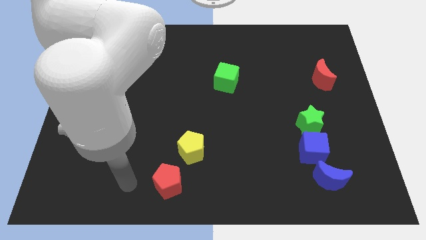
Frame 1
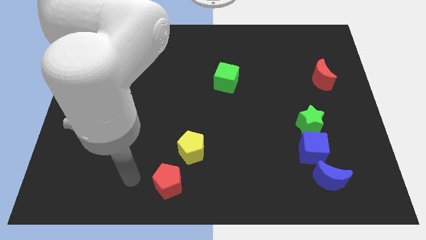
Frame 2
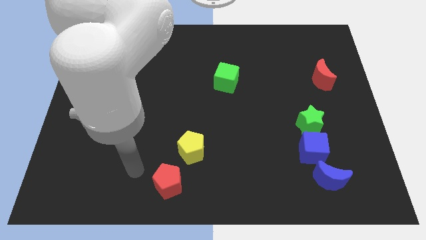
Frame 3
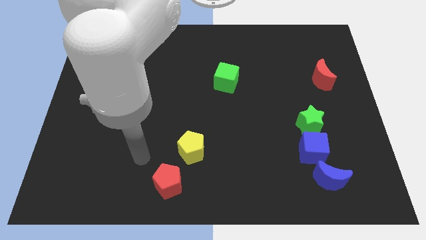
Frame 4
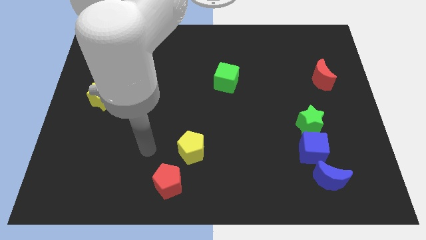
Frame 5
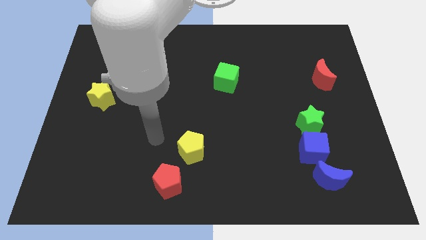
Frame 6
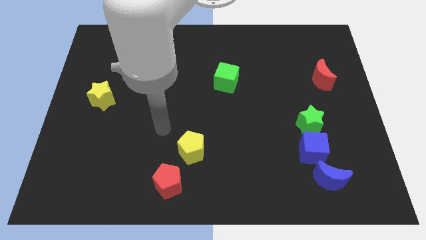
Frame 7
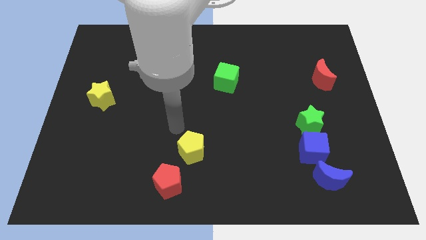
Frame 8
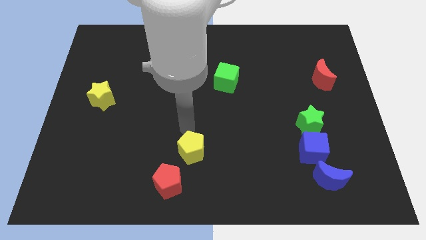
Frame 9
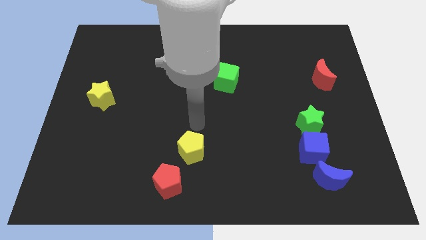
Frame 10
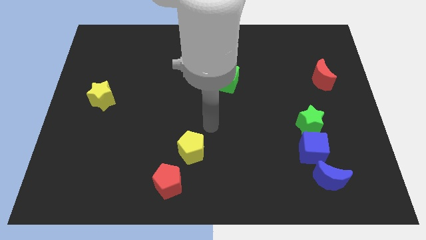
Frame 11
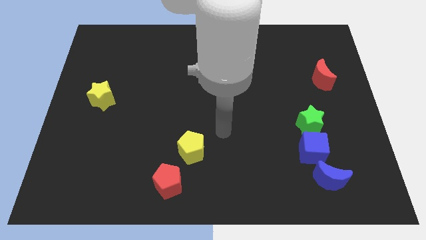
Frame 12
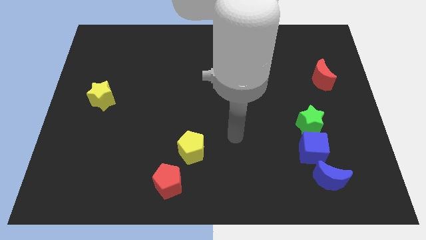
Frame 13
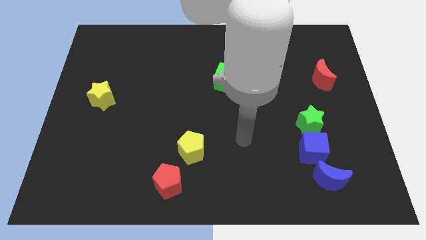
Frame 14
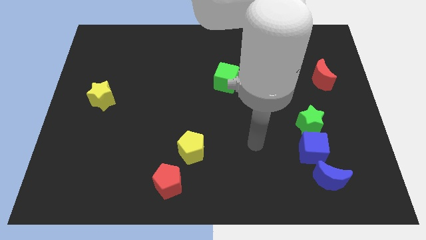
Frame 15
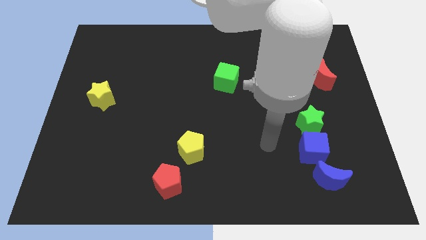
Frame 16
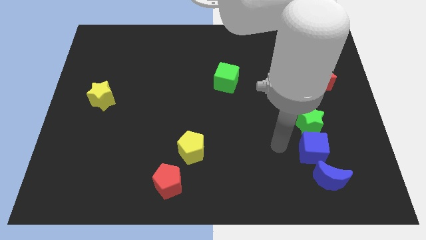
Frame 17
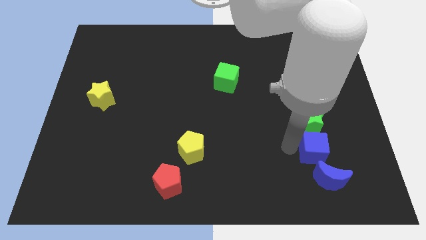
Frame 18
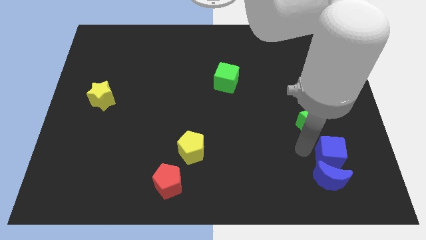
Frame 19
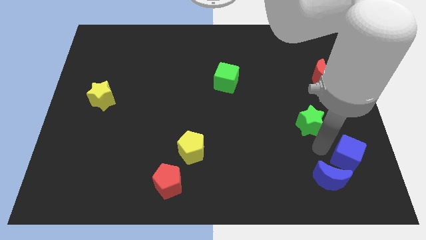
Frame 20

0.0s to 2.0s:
separate the green star from the blue cube

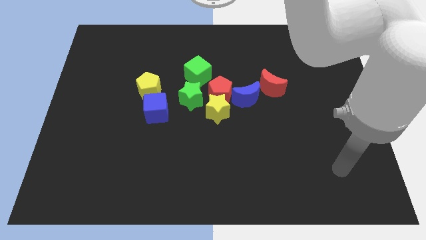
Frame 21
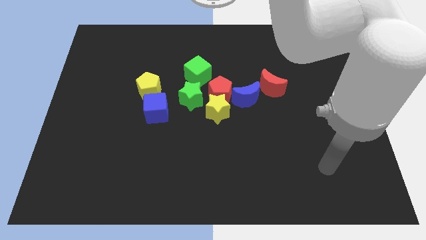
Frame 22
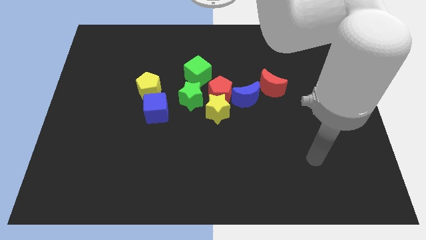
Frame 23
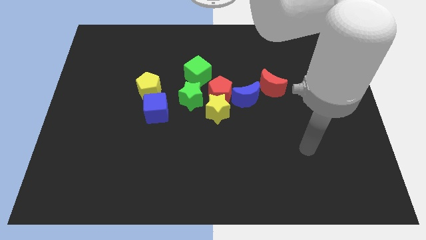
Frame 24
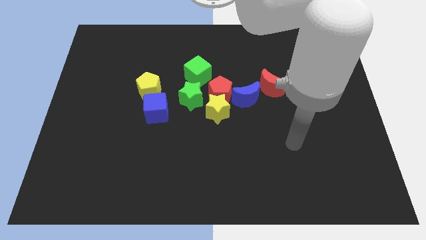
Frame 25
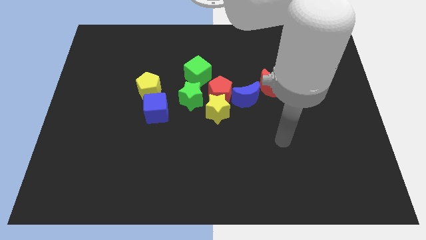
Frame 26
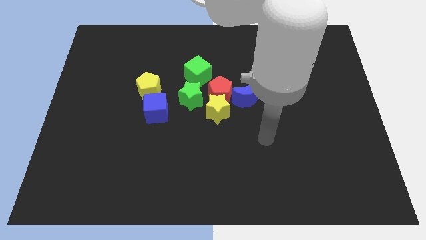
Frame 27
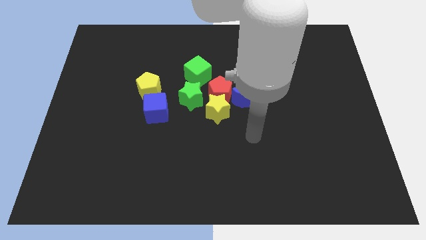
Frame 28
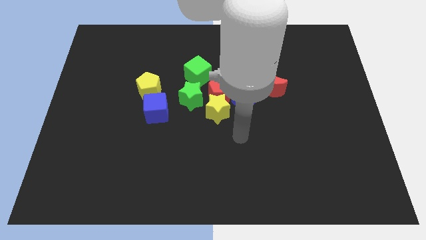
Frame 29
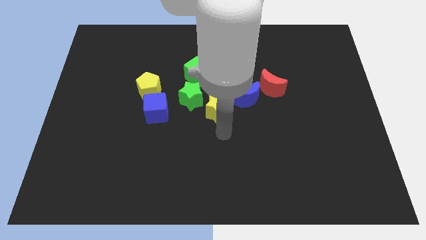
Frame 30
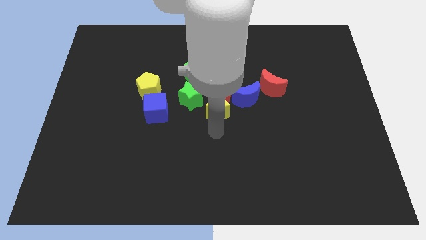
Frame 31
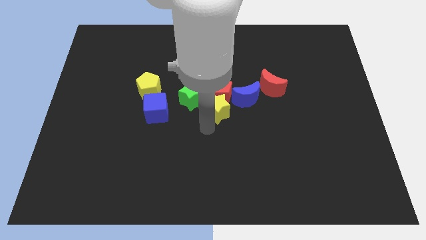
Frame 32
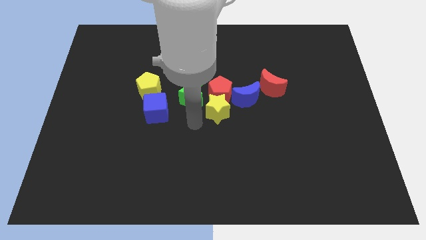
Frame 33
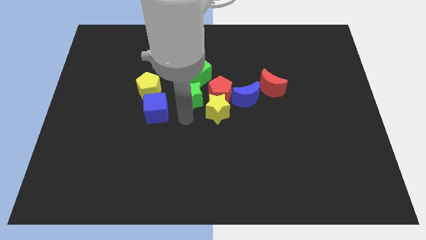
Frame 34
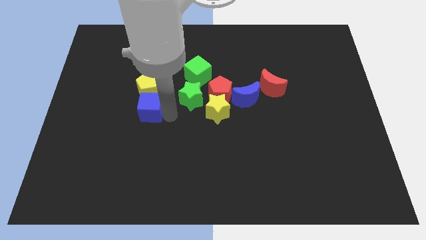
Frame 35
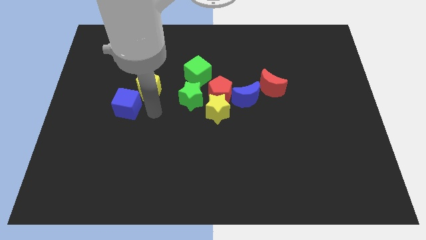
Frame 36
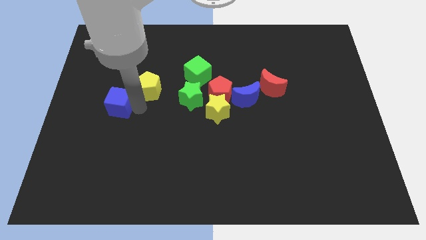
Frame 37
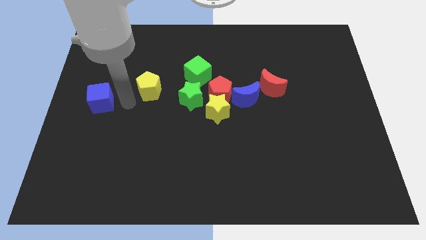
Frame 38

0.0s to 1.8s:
pull the yellow pentagon apart from the blue cube

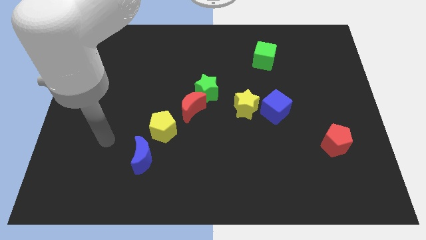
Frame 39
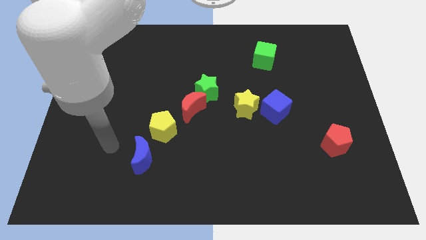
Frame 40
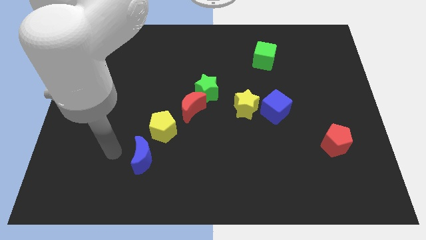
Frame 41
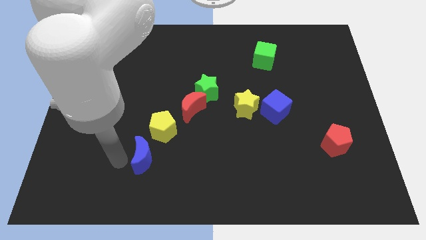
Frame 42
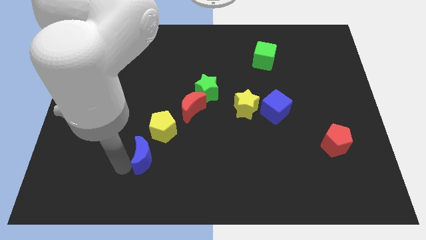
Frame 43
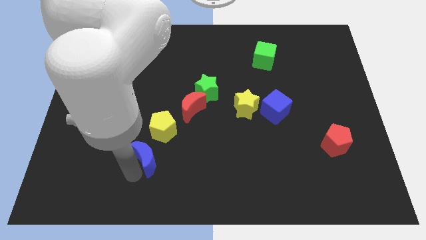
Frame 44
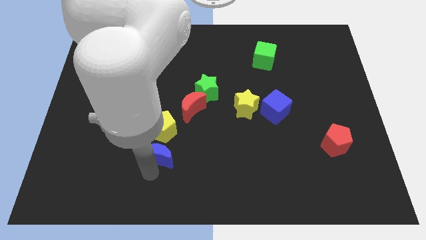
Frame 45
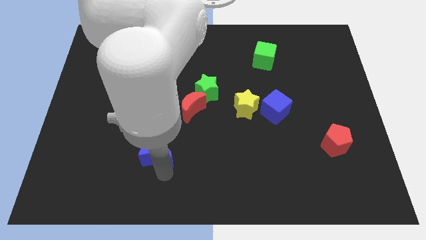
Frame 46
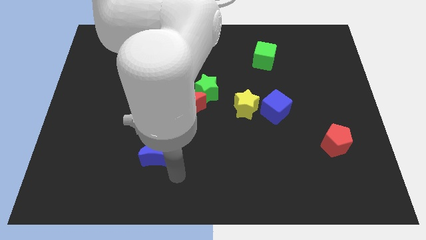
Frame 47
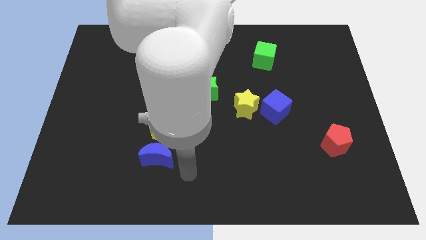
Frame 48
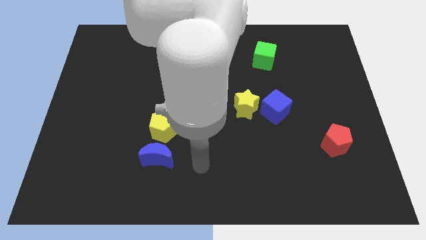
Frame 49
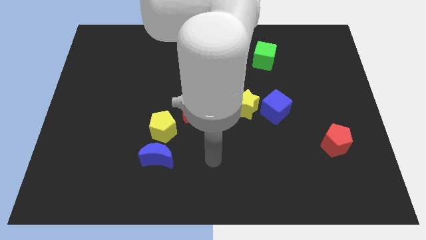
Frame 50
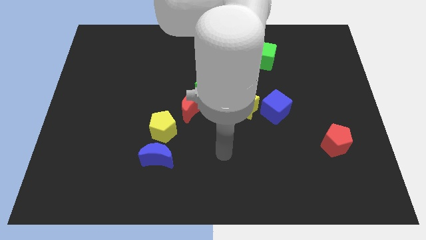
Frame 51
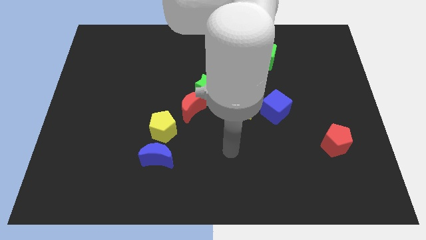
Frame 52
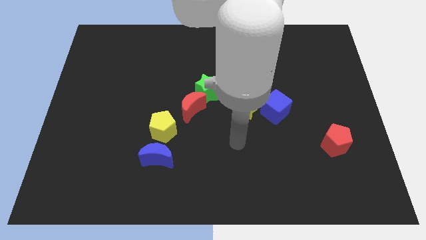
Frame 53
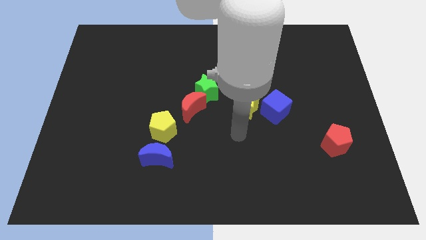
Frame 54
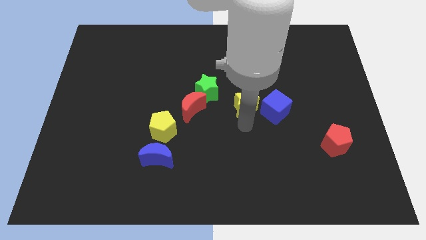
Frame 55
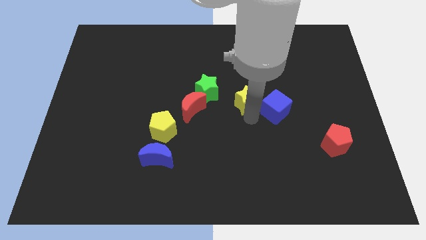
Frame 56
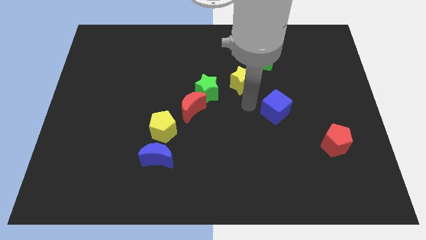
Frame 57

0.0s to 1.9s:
pull the blue cube apart from the yellow star

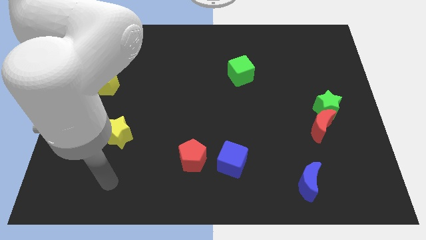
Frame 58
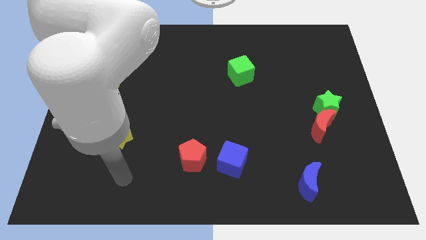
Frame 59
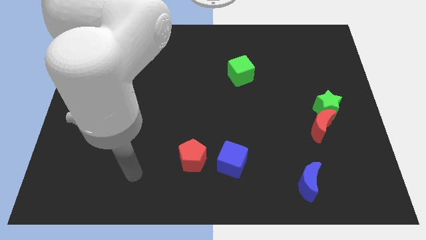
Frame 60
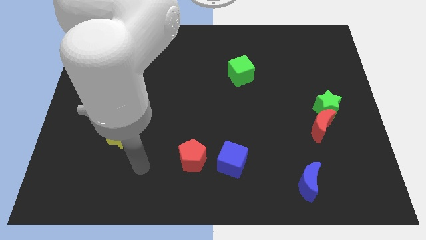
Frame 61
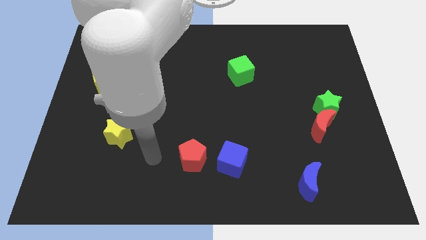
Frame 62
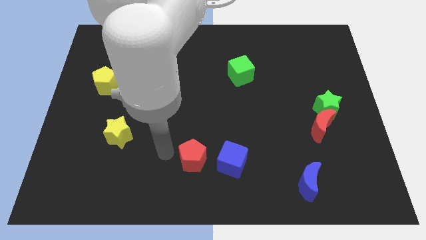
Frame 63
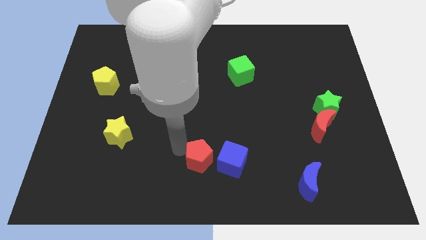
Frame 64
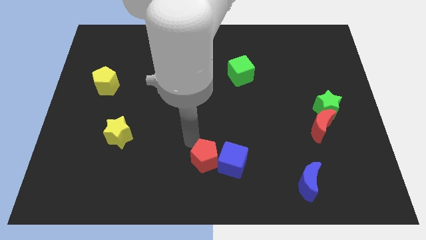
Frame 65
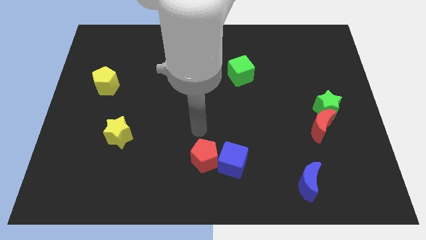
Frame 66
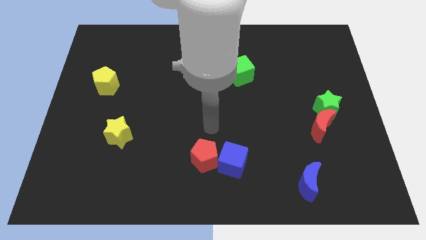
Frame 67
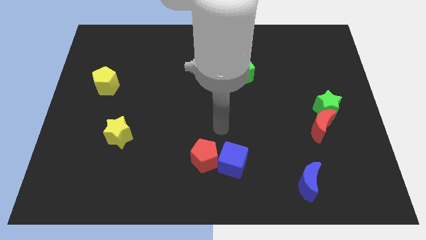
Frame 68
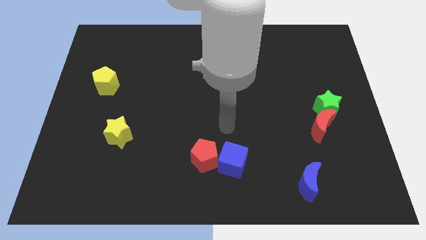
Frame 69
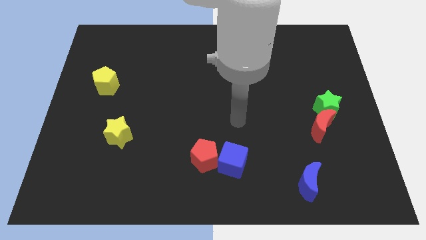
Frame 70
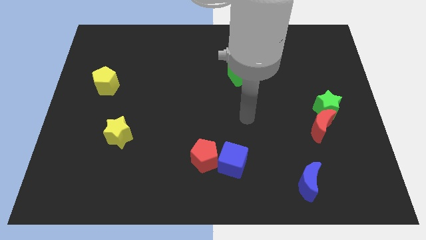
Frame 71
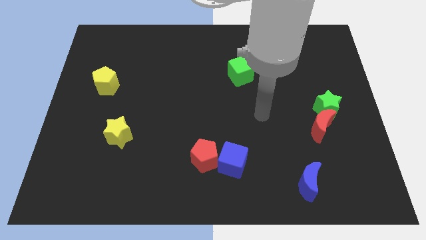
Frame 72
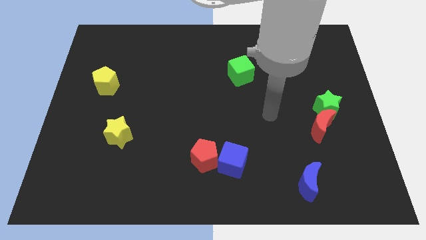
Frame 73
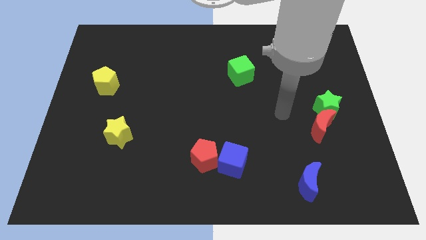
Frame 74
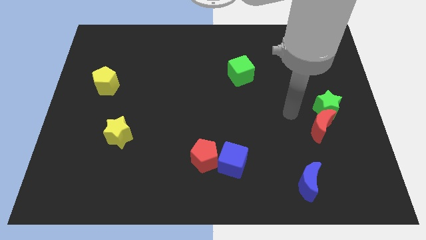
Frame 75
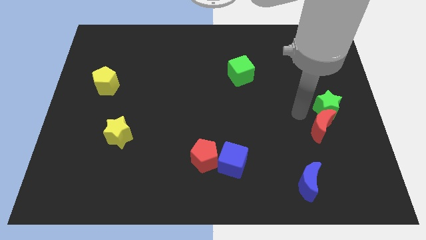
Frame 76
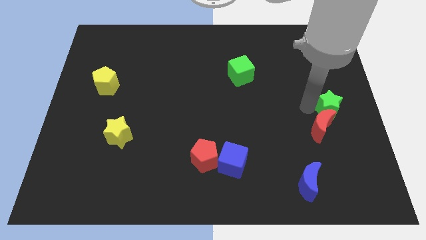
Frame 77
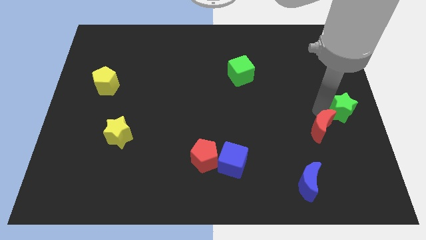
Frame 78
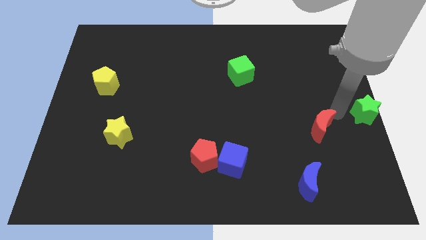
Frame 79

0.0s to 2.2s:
separate the red moon from the green star

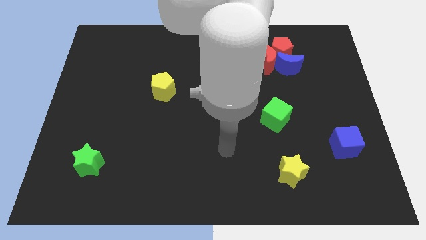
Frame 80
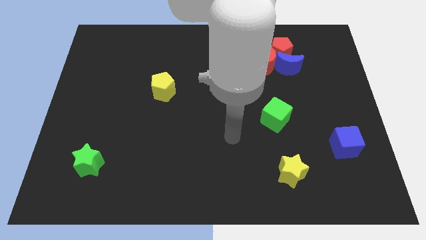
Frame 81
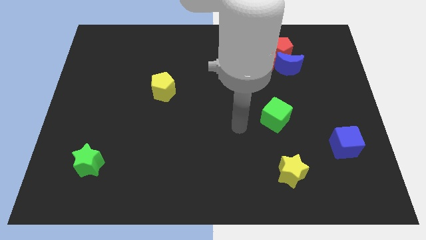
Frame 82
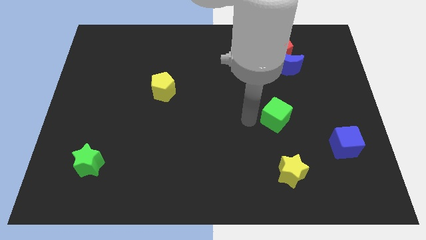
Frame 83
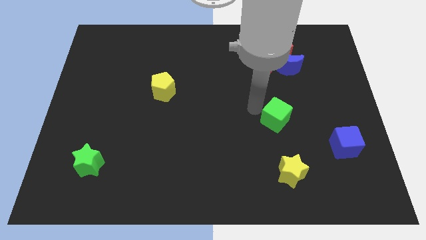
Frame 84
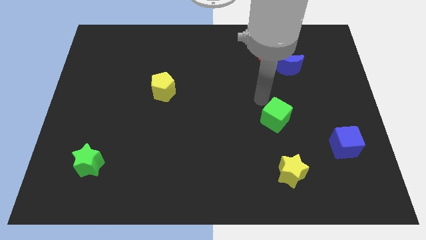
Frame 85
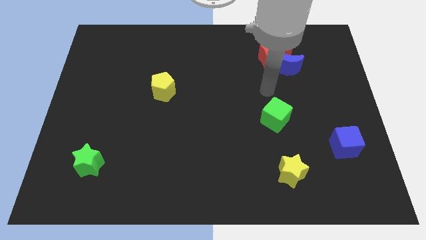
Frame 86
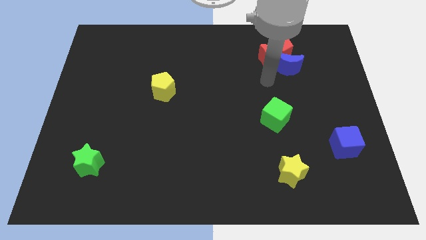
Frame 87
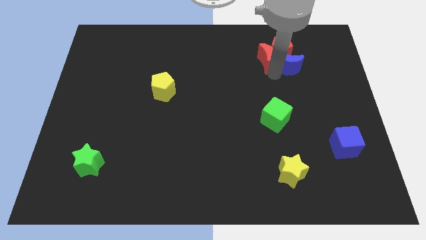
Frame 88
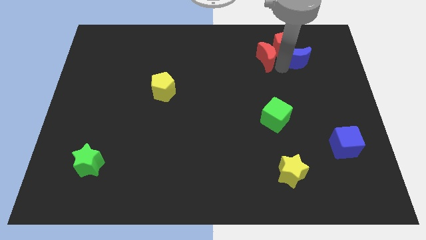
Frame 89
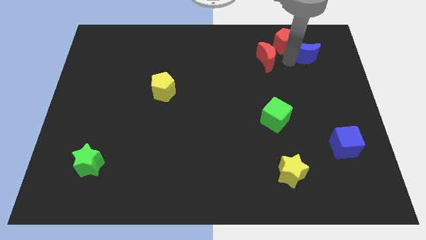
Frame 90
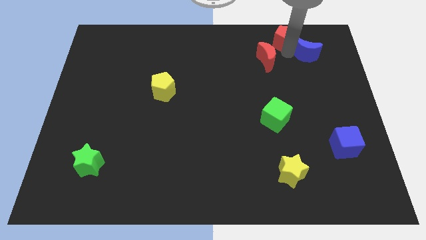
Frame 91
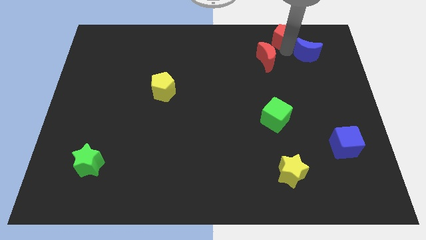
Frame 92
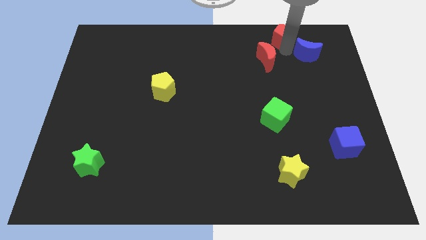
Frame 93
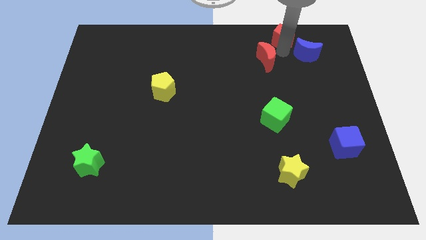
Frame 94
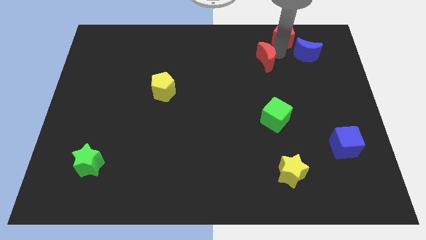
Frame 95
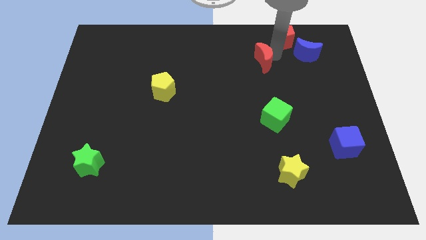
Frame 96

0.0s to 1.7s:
separate the red moon from the red pentagon and blue moon
